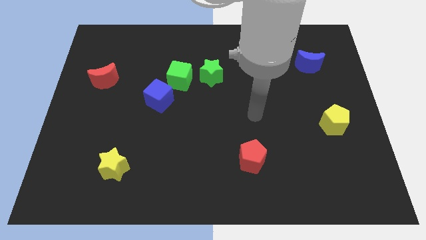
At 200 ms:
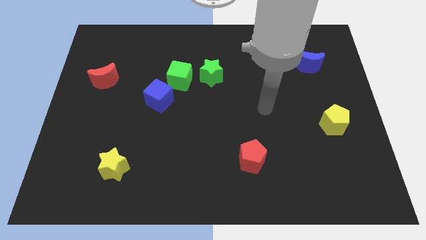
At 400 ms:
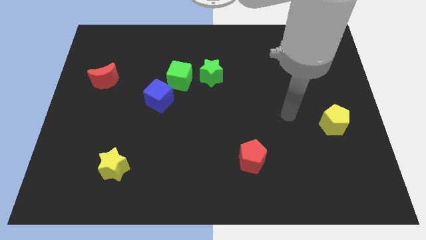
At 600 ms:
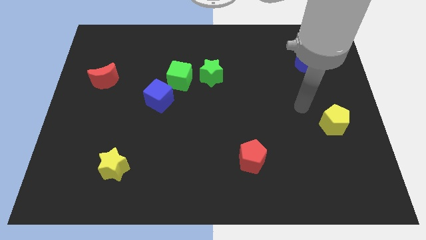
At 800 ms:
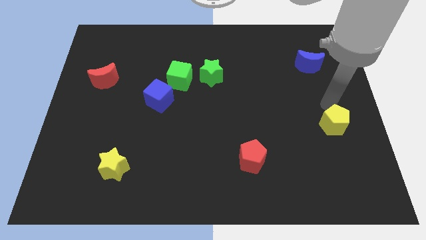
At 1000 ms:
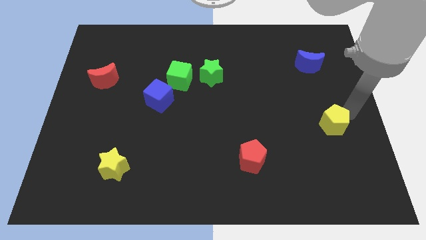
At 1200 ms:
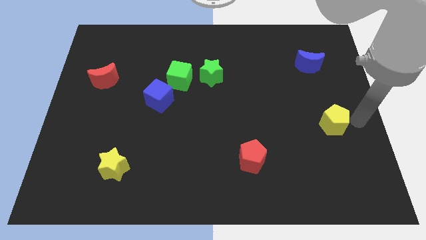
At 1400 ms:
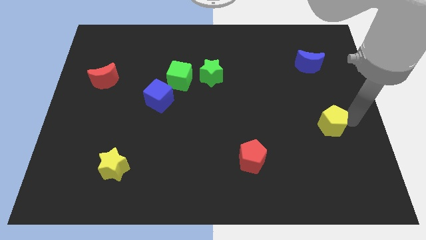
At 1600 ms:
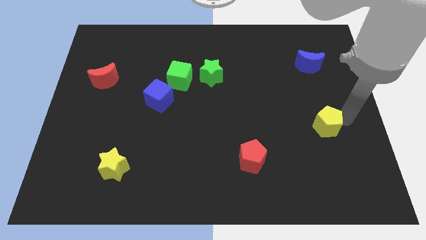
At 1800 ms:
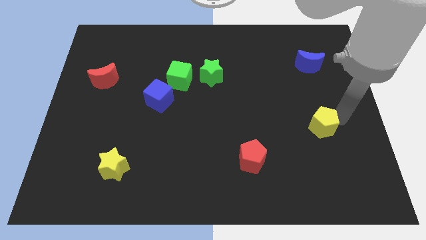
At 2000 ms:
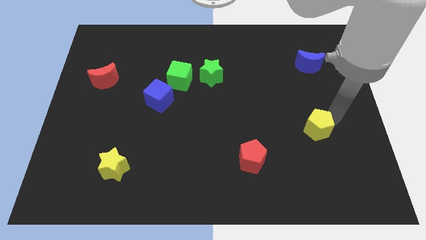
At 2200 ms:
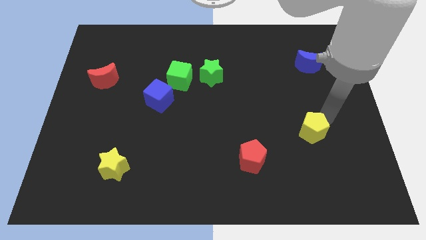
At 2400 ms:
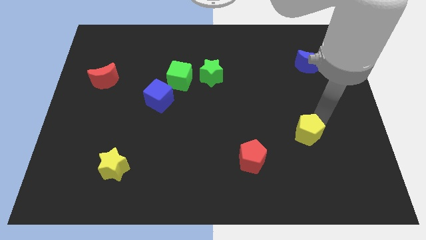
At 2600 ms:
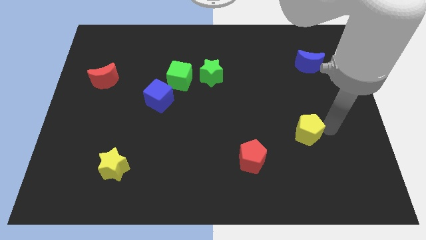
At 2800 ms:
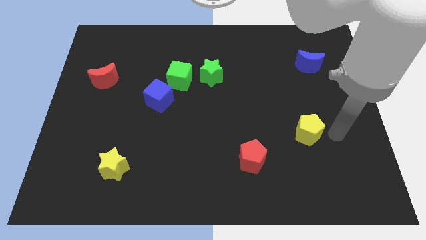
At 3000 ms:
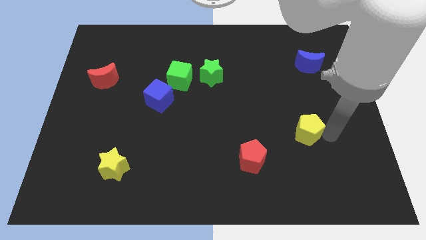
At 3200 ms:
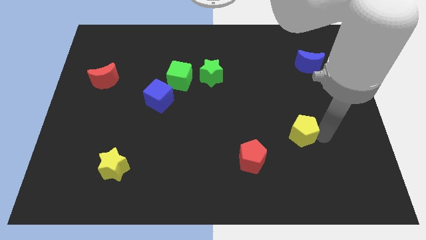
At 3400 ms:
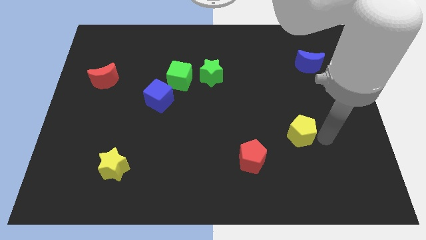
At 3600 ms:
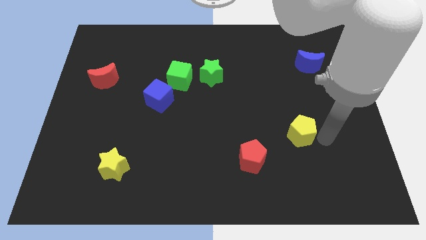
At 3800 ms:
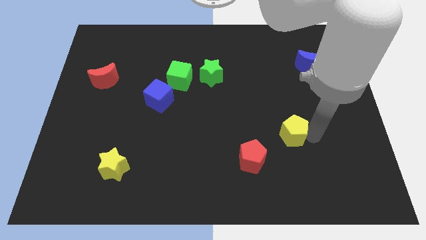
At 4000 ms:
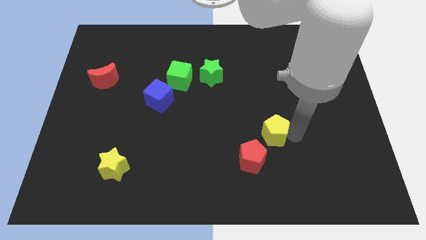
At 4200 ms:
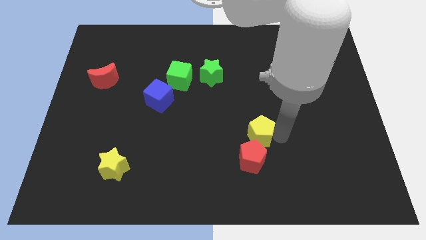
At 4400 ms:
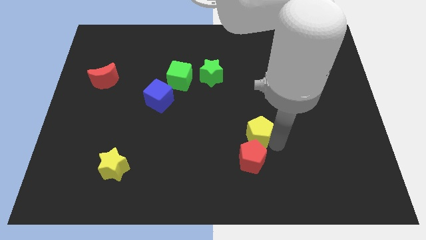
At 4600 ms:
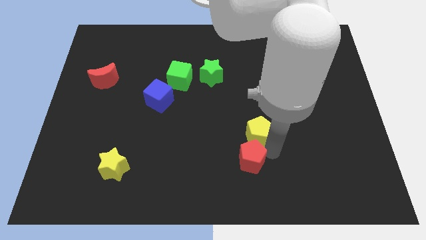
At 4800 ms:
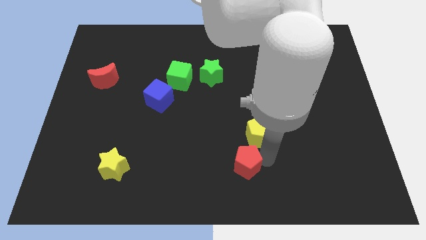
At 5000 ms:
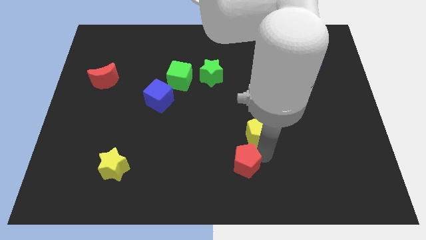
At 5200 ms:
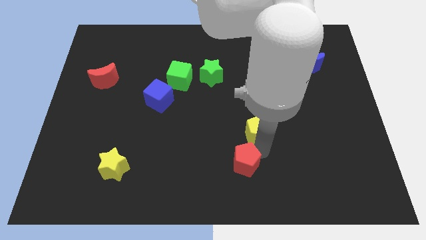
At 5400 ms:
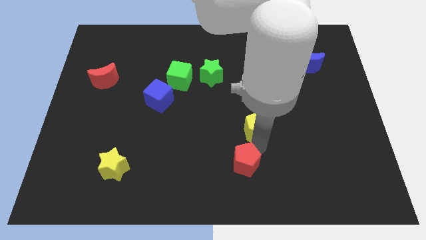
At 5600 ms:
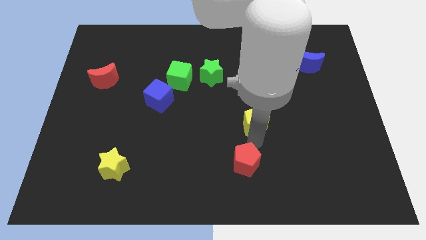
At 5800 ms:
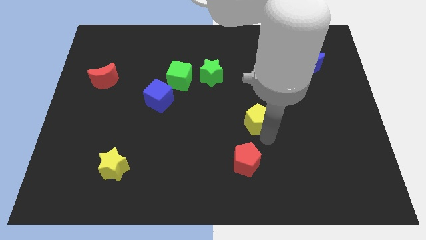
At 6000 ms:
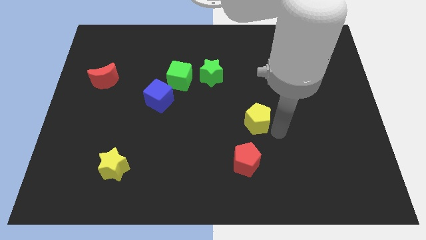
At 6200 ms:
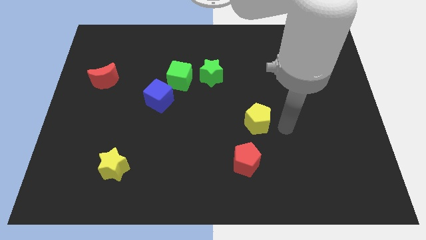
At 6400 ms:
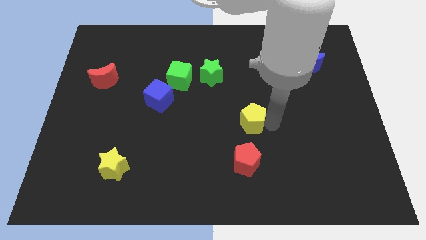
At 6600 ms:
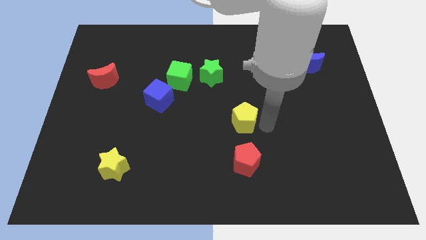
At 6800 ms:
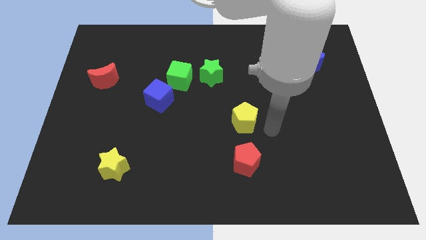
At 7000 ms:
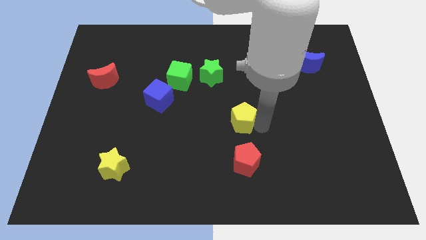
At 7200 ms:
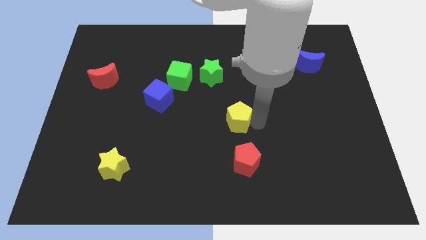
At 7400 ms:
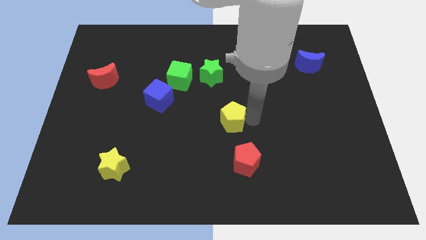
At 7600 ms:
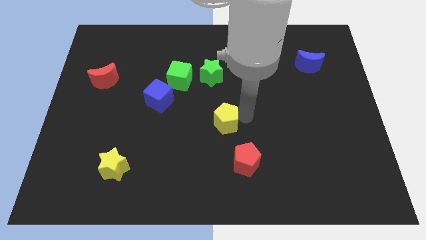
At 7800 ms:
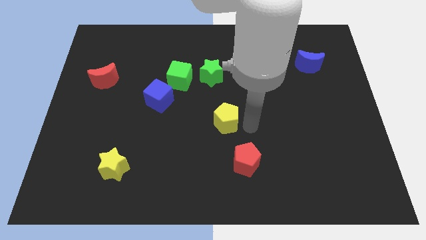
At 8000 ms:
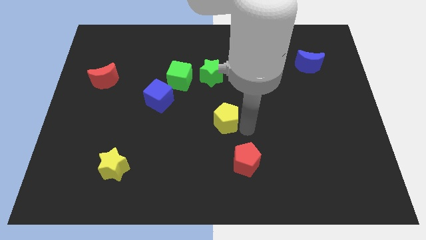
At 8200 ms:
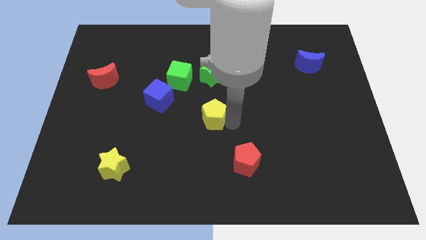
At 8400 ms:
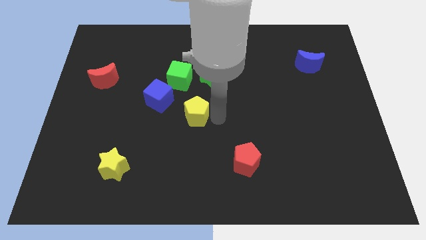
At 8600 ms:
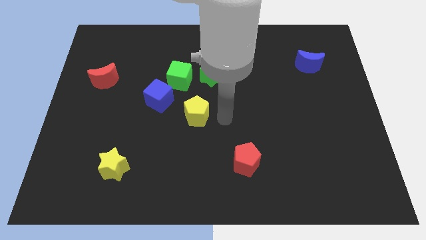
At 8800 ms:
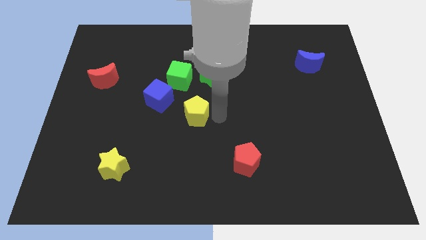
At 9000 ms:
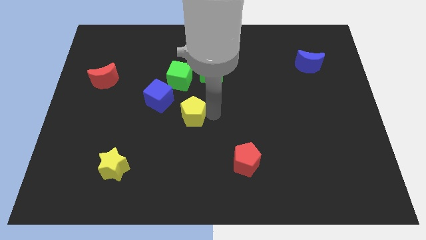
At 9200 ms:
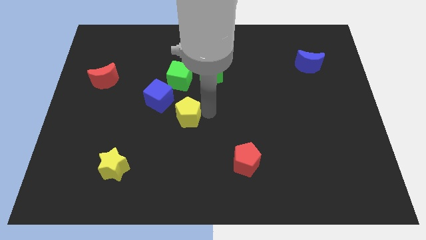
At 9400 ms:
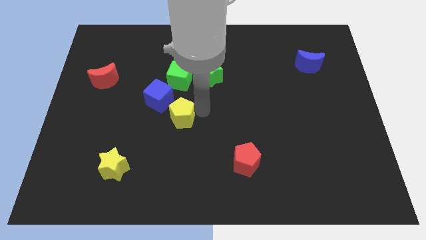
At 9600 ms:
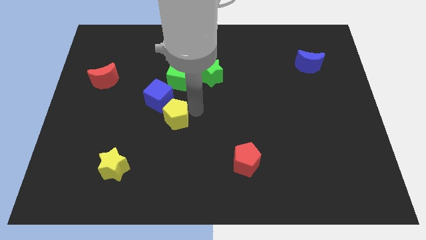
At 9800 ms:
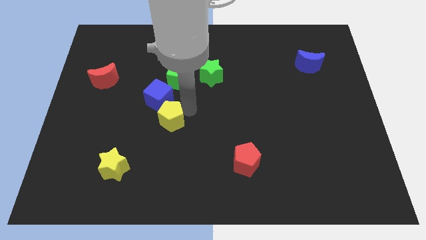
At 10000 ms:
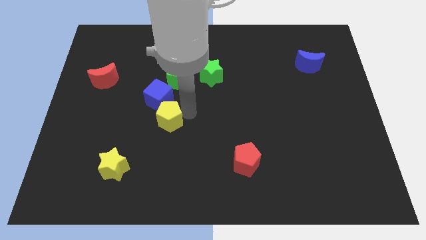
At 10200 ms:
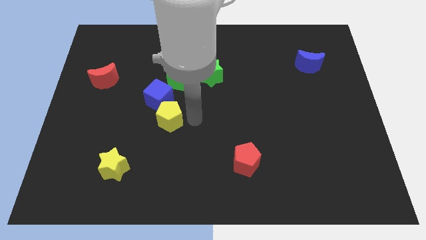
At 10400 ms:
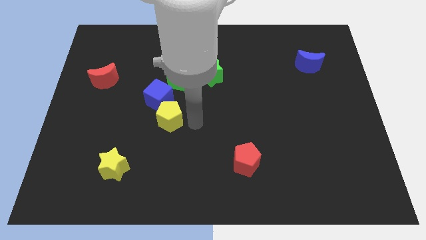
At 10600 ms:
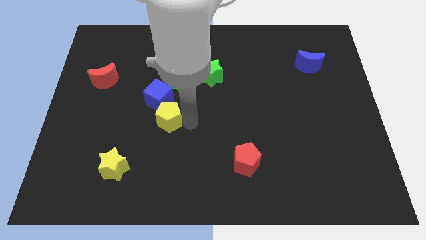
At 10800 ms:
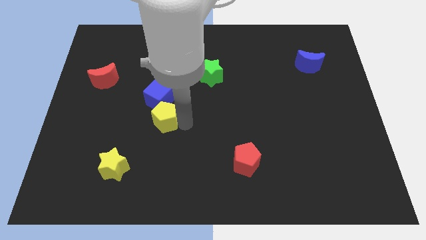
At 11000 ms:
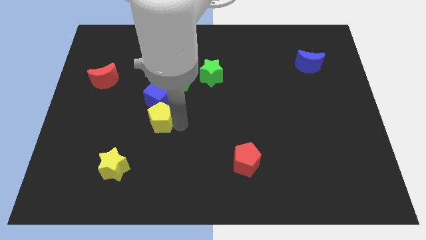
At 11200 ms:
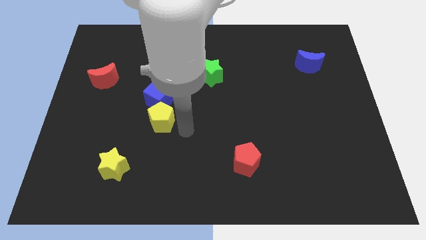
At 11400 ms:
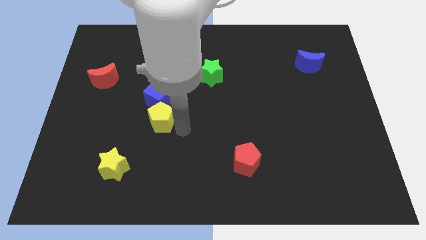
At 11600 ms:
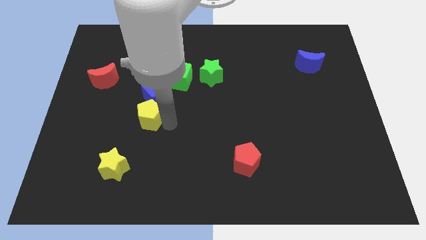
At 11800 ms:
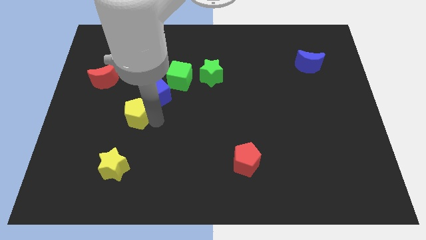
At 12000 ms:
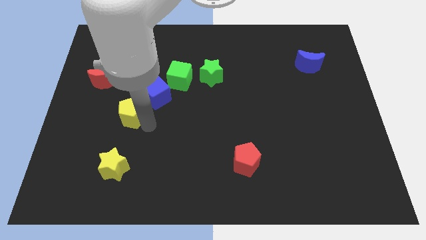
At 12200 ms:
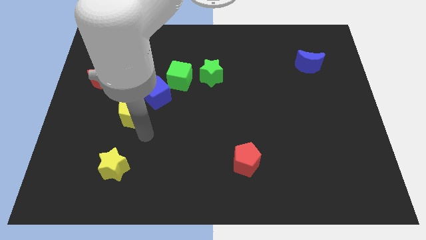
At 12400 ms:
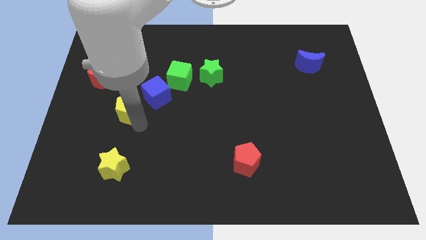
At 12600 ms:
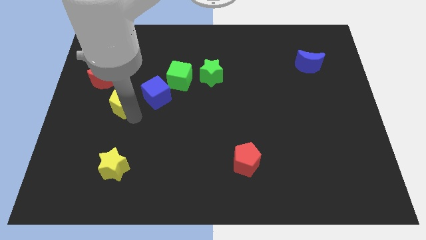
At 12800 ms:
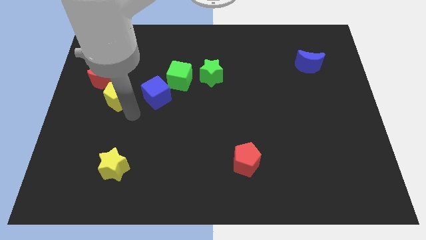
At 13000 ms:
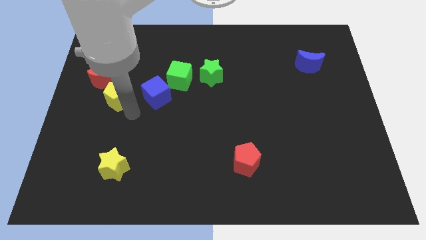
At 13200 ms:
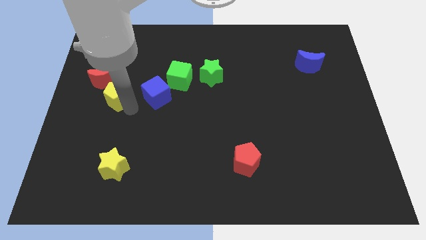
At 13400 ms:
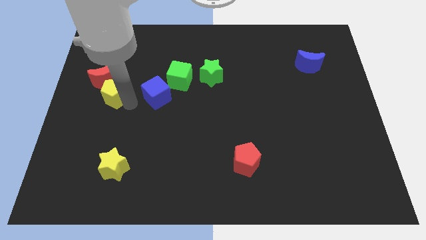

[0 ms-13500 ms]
put the yellow pentagon next to the red moon
